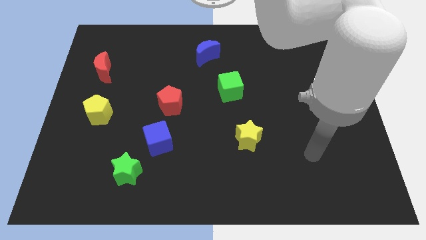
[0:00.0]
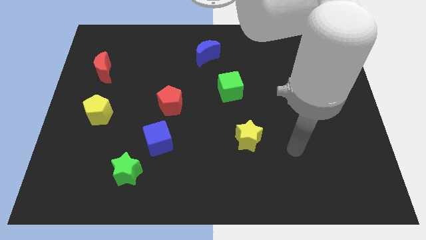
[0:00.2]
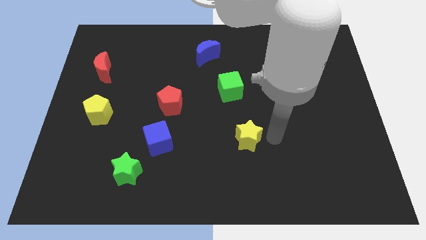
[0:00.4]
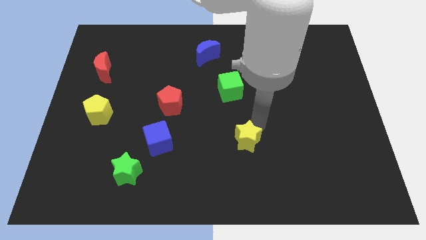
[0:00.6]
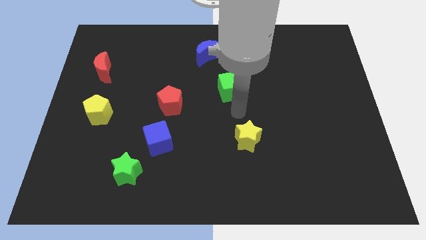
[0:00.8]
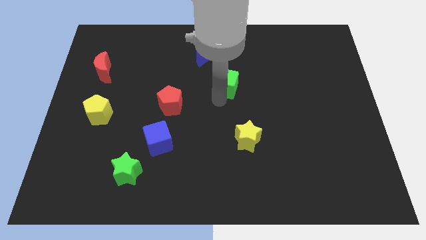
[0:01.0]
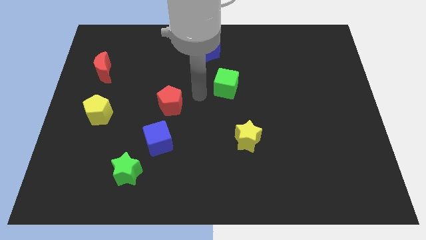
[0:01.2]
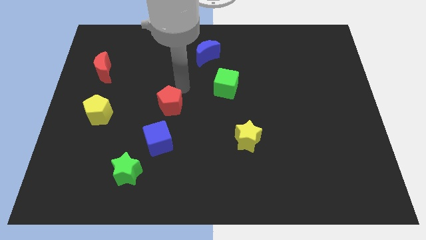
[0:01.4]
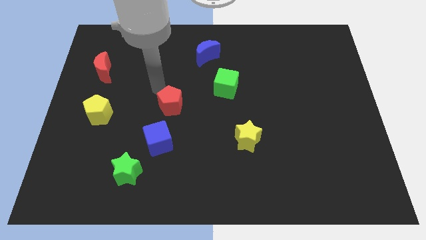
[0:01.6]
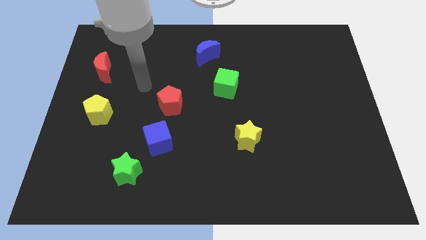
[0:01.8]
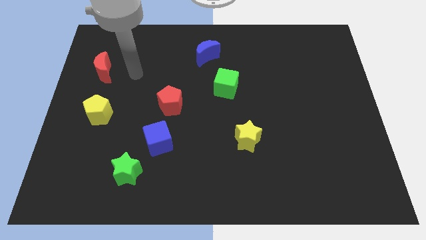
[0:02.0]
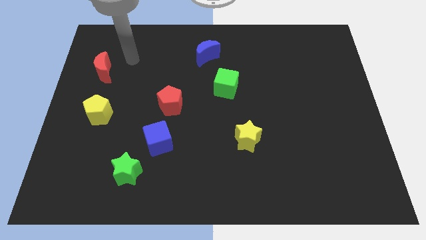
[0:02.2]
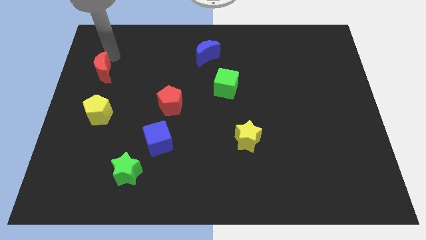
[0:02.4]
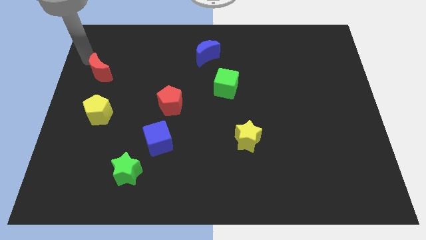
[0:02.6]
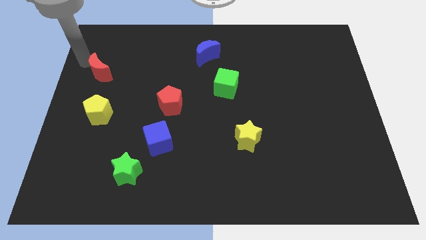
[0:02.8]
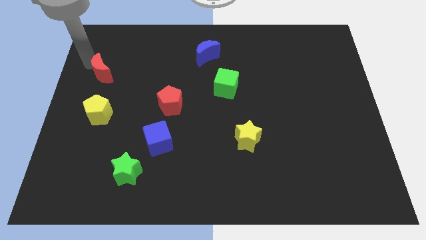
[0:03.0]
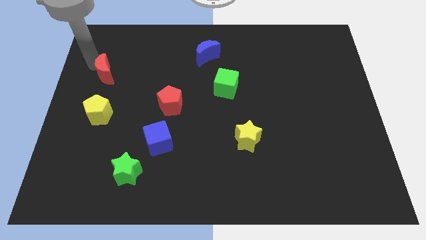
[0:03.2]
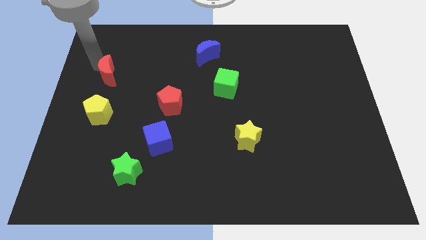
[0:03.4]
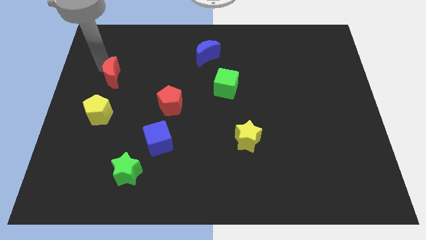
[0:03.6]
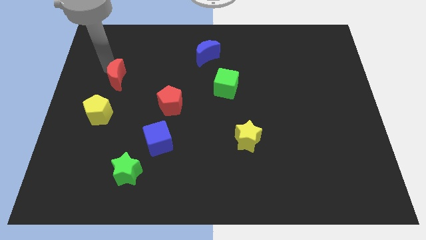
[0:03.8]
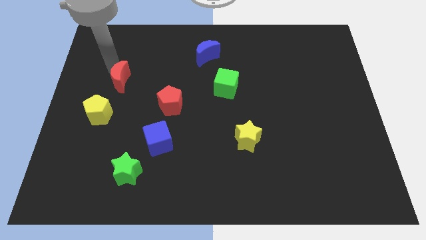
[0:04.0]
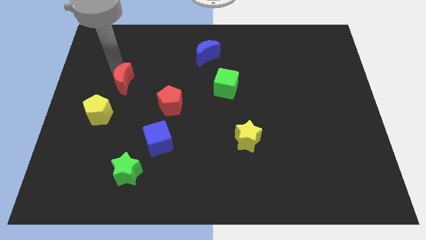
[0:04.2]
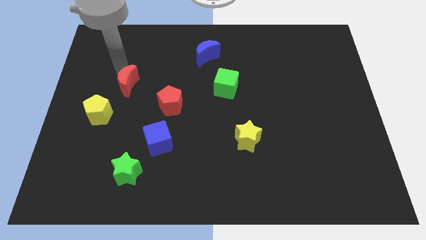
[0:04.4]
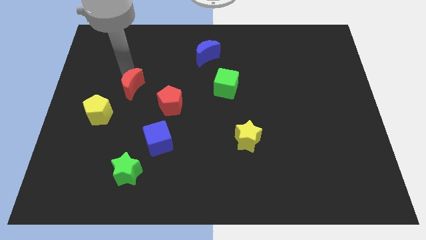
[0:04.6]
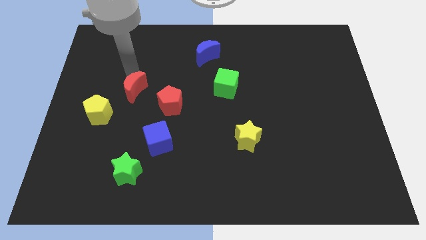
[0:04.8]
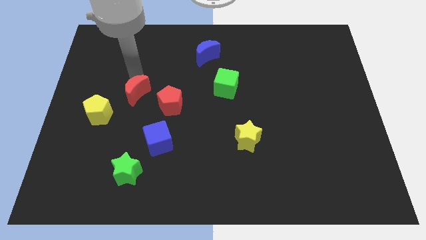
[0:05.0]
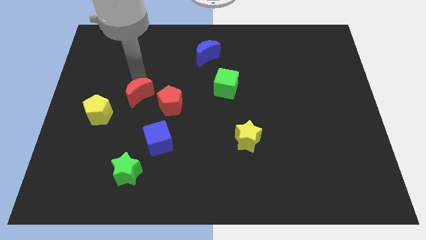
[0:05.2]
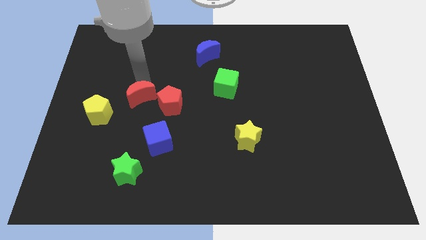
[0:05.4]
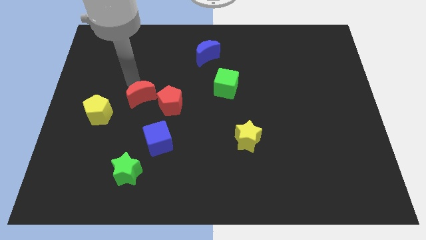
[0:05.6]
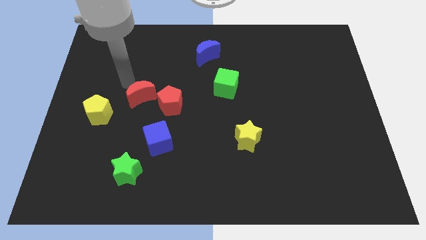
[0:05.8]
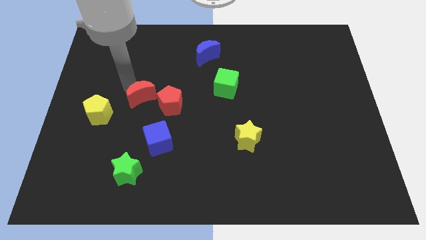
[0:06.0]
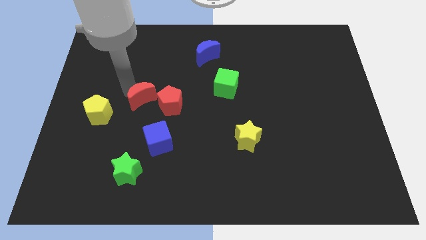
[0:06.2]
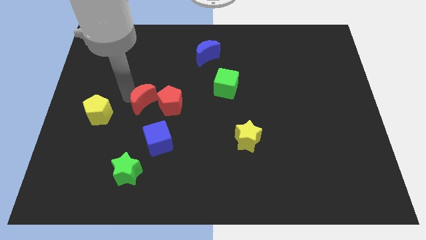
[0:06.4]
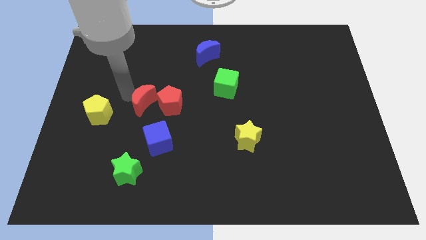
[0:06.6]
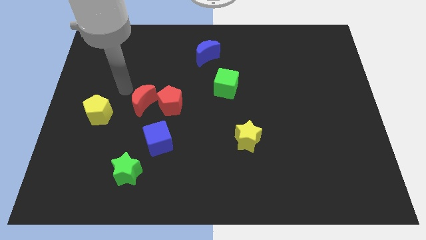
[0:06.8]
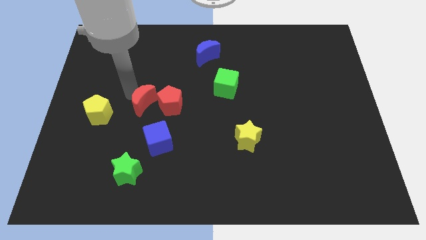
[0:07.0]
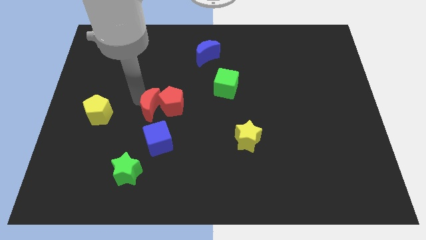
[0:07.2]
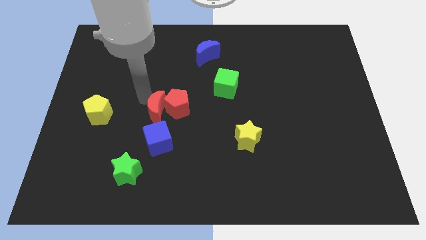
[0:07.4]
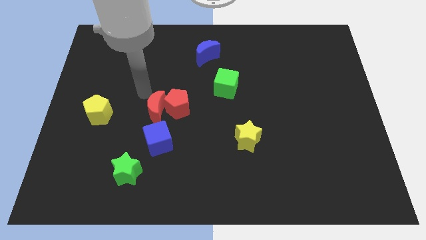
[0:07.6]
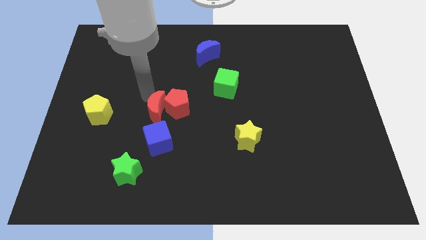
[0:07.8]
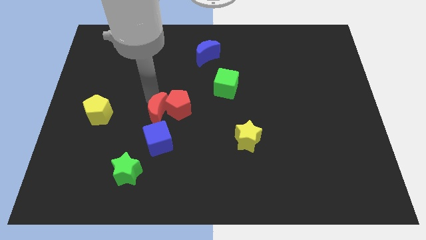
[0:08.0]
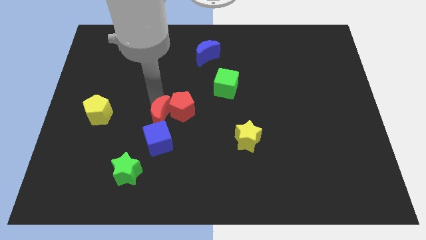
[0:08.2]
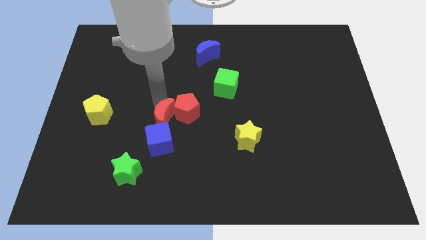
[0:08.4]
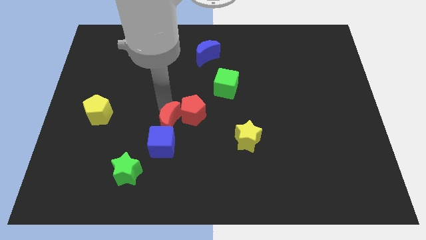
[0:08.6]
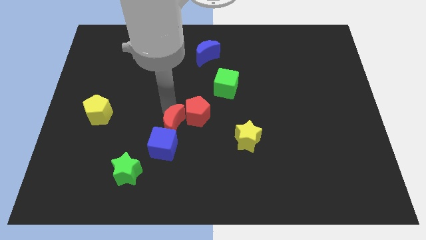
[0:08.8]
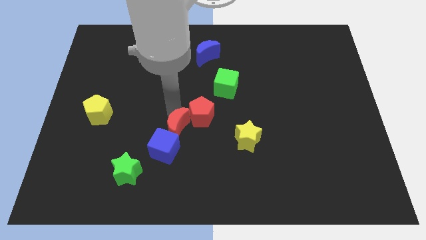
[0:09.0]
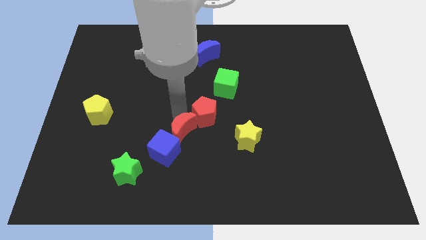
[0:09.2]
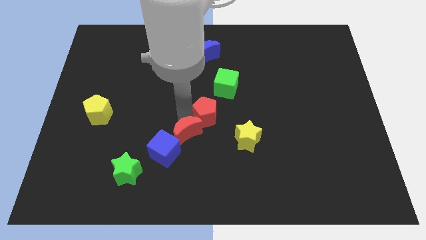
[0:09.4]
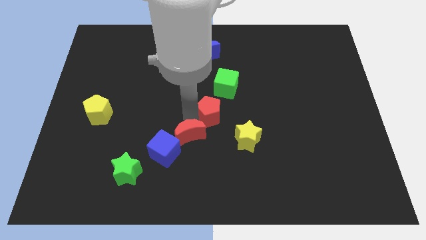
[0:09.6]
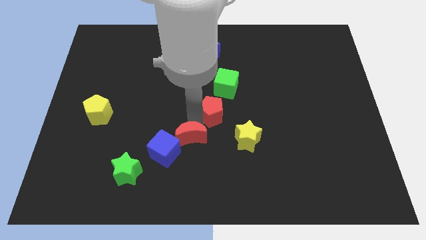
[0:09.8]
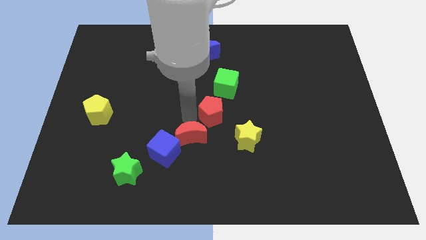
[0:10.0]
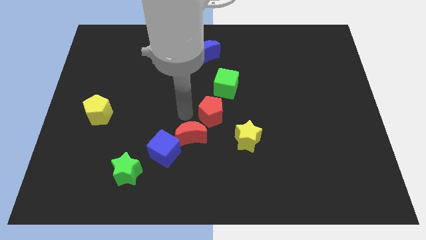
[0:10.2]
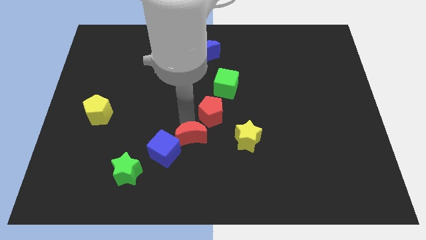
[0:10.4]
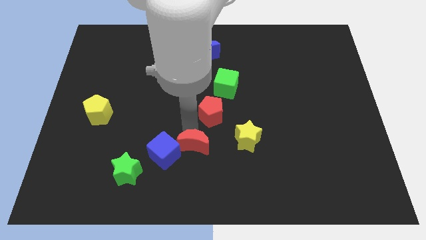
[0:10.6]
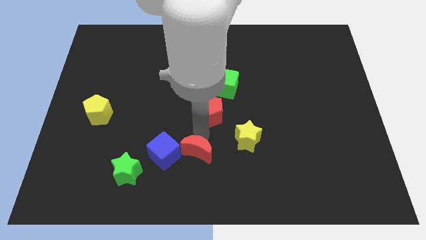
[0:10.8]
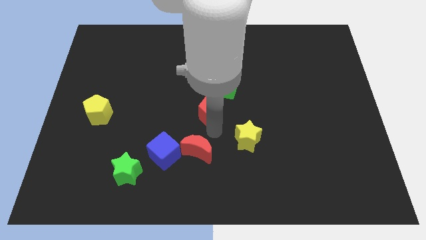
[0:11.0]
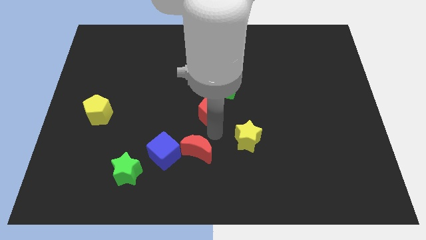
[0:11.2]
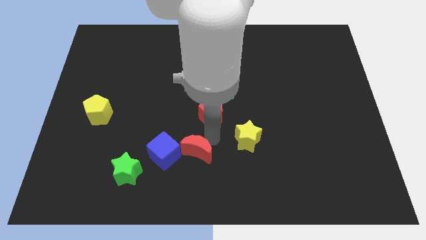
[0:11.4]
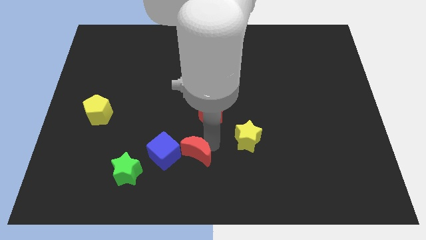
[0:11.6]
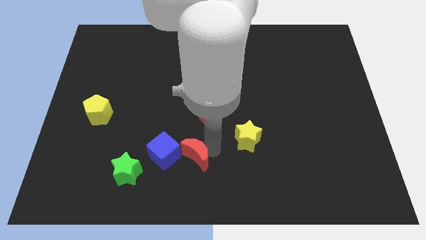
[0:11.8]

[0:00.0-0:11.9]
move the red moon to the right side of the green star

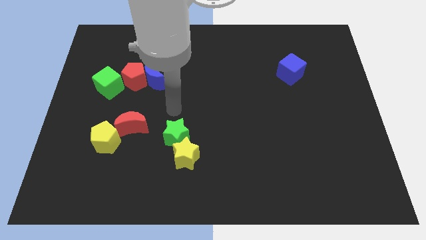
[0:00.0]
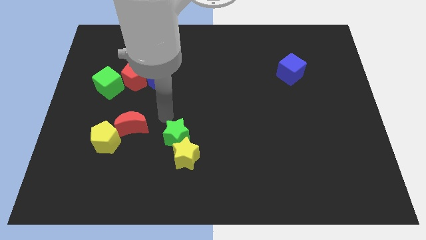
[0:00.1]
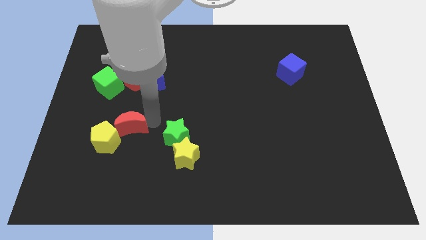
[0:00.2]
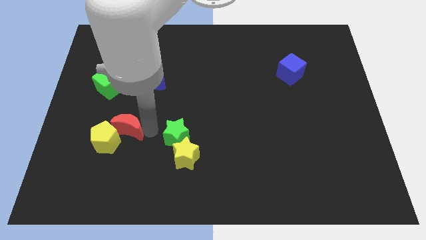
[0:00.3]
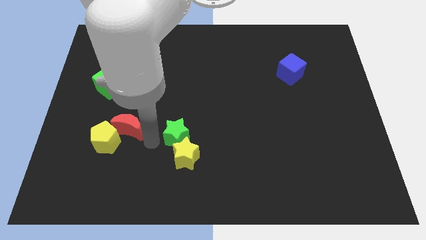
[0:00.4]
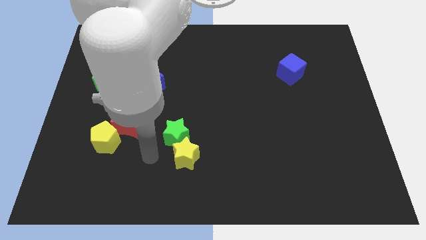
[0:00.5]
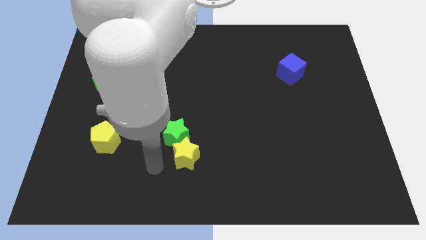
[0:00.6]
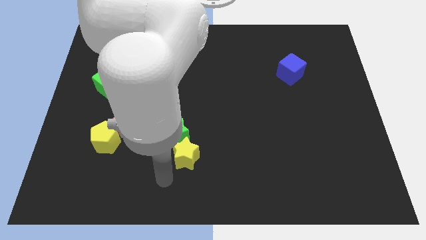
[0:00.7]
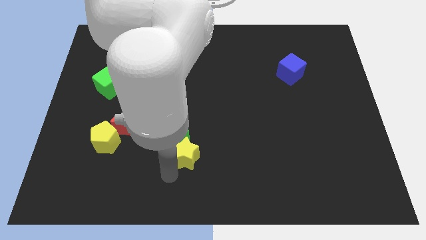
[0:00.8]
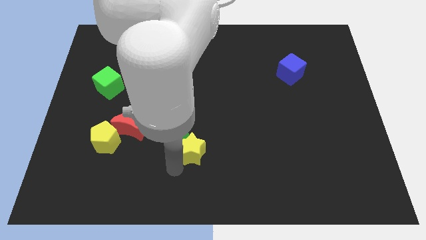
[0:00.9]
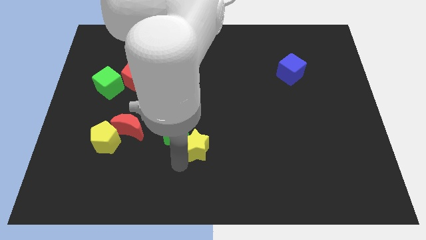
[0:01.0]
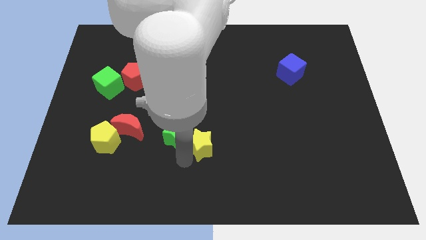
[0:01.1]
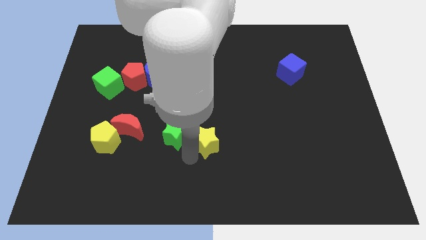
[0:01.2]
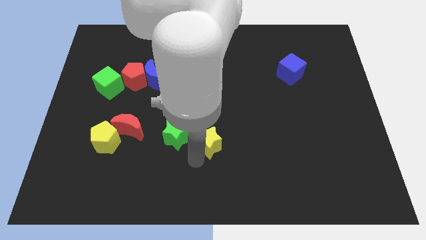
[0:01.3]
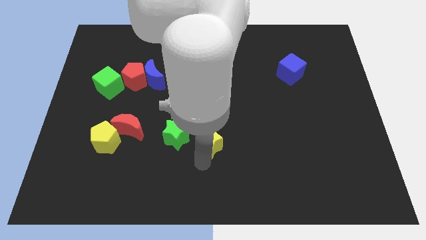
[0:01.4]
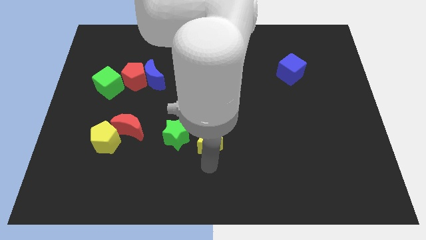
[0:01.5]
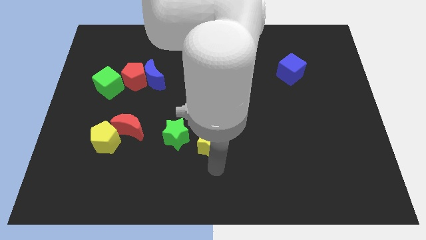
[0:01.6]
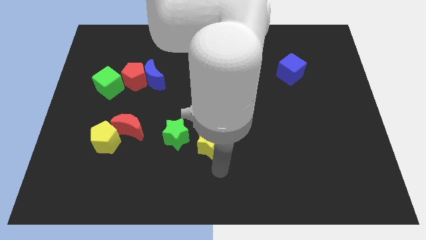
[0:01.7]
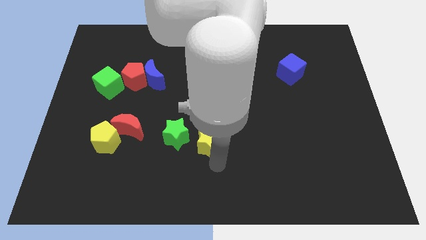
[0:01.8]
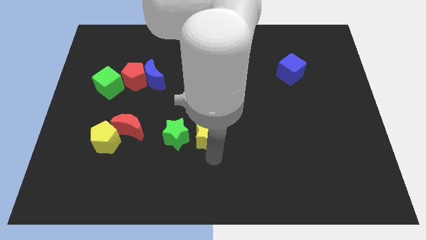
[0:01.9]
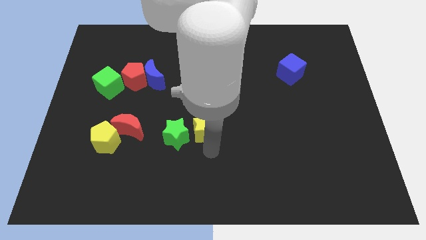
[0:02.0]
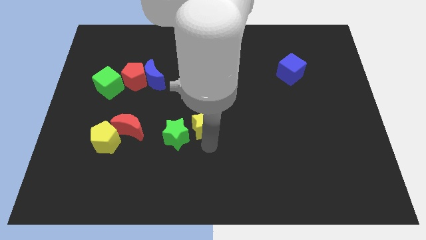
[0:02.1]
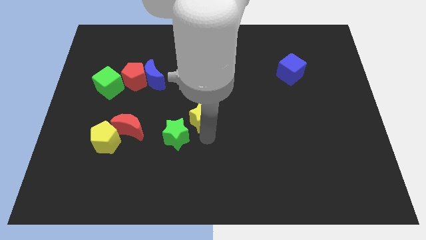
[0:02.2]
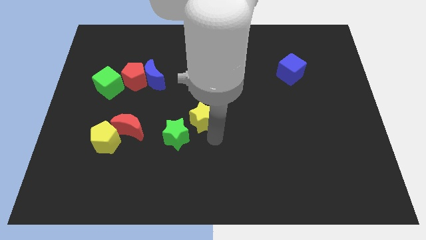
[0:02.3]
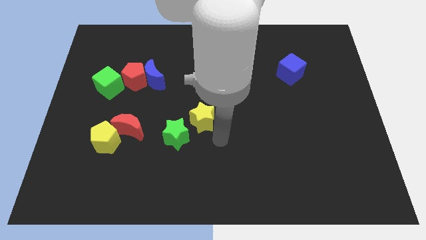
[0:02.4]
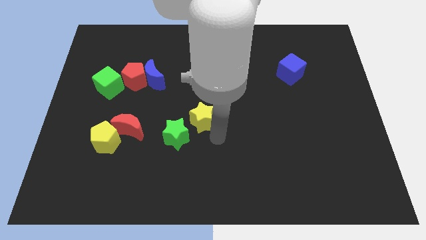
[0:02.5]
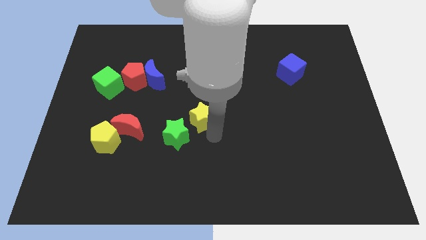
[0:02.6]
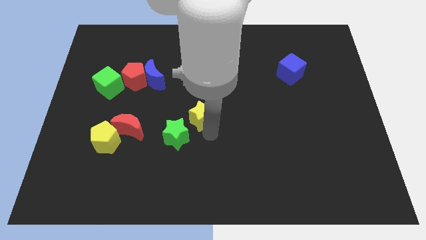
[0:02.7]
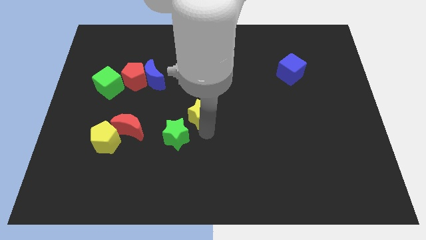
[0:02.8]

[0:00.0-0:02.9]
move the yellow star to the top side of the green star
